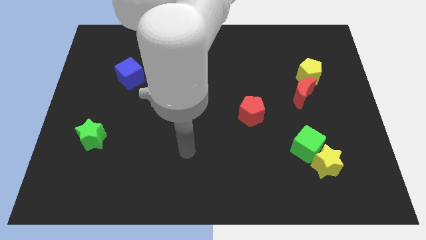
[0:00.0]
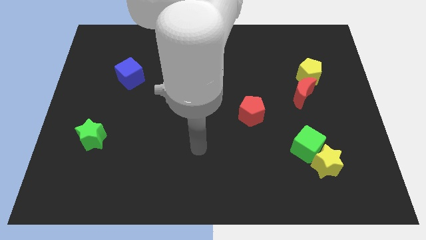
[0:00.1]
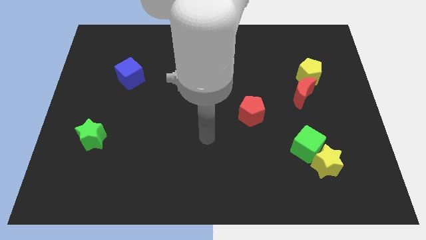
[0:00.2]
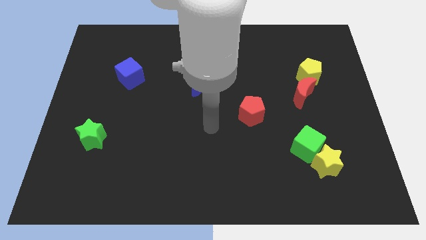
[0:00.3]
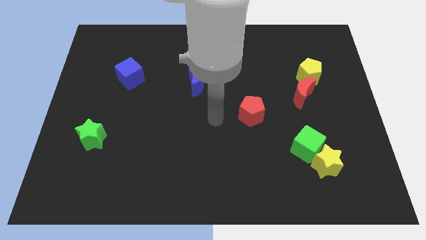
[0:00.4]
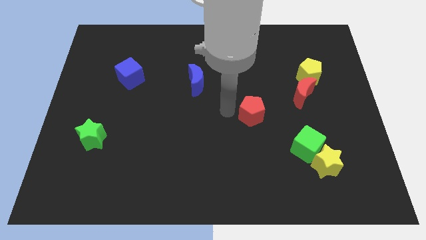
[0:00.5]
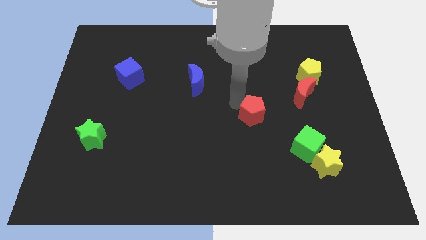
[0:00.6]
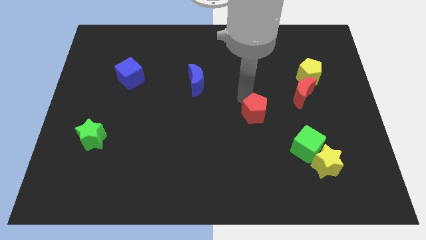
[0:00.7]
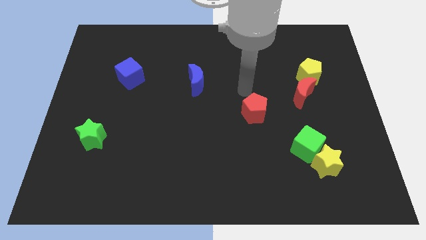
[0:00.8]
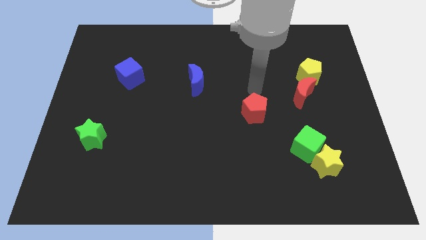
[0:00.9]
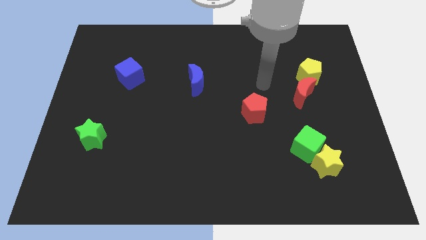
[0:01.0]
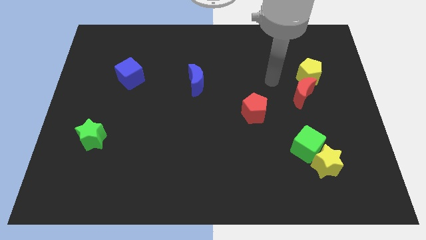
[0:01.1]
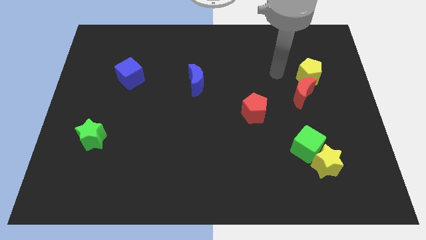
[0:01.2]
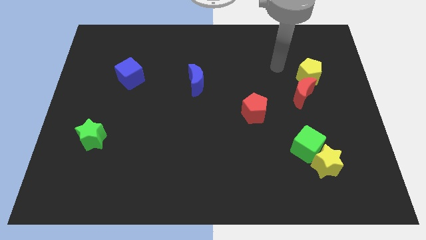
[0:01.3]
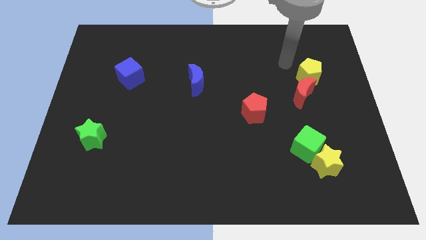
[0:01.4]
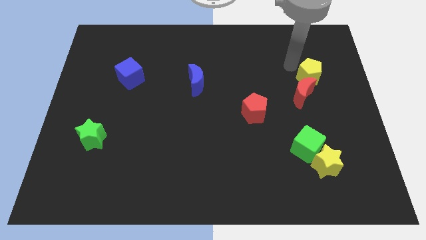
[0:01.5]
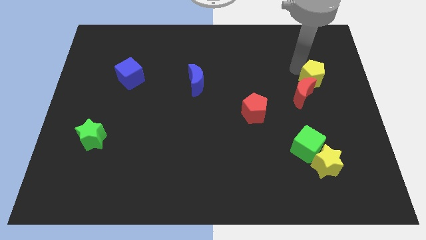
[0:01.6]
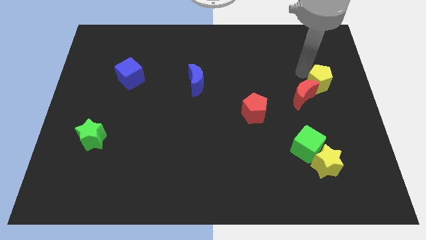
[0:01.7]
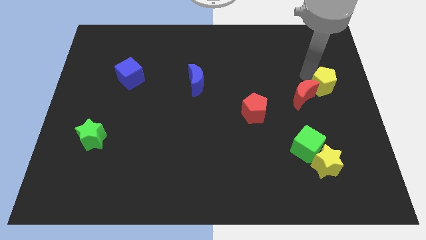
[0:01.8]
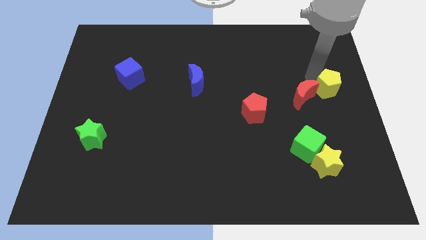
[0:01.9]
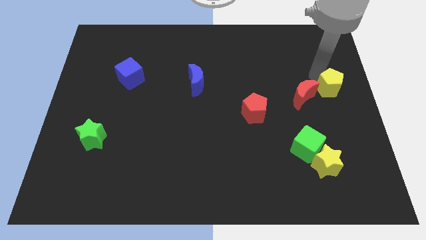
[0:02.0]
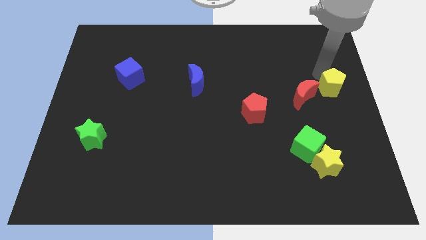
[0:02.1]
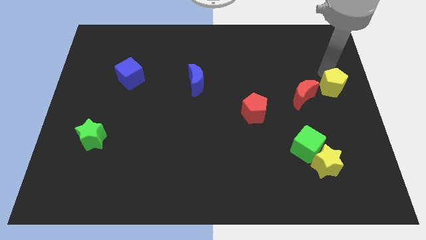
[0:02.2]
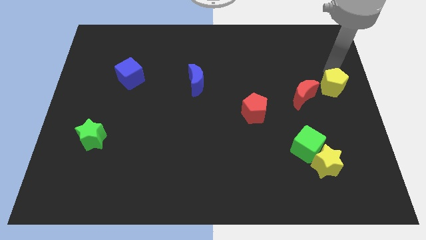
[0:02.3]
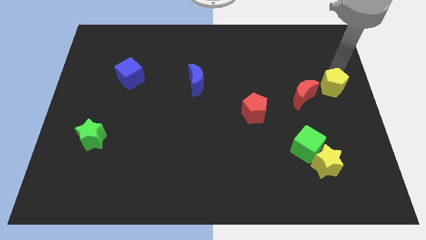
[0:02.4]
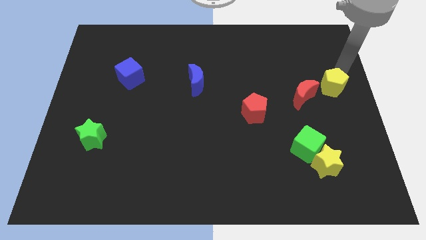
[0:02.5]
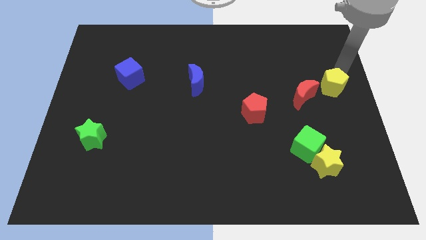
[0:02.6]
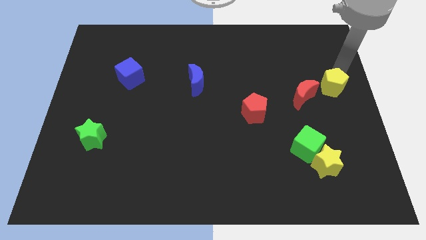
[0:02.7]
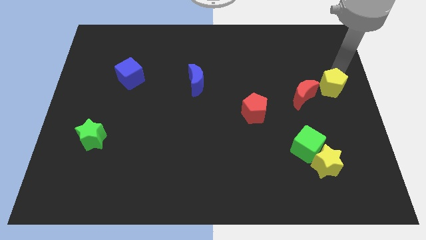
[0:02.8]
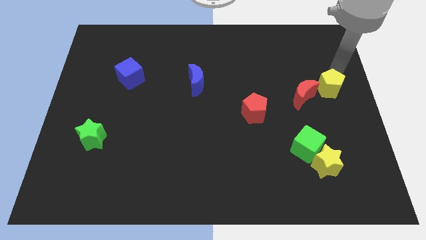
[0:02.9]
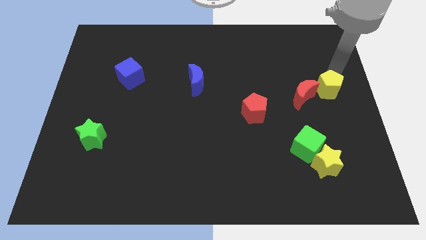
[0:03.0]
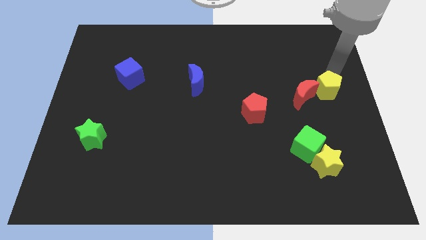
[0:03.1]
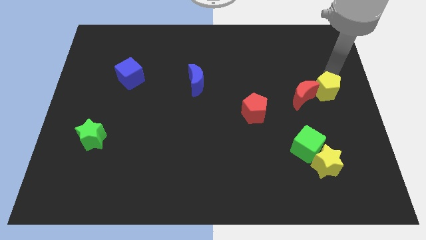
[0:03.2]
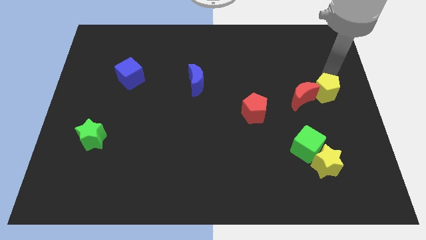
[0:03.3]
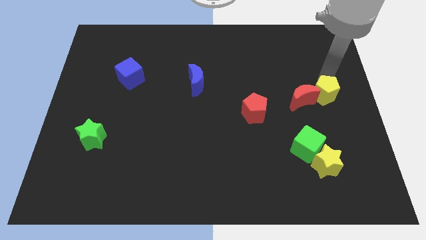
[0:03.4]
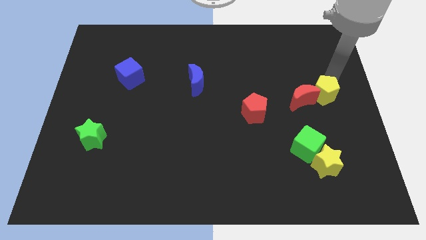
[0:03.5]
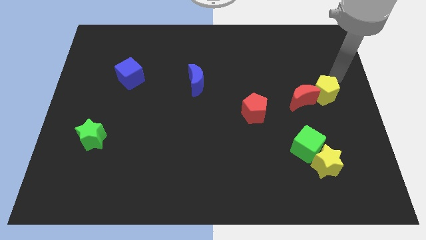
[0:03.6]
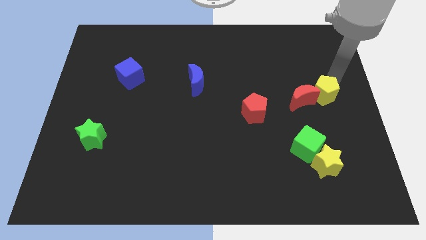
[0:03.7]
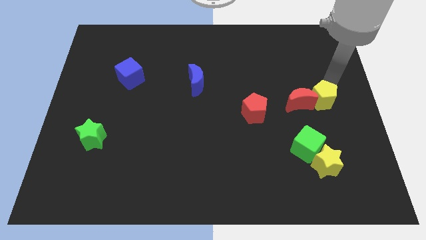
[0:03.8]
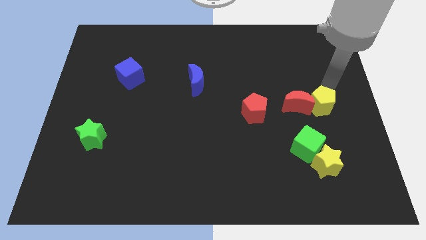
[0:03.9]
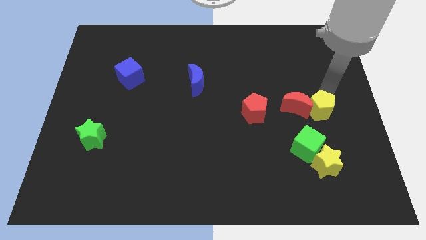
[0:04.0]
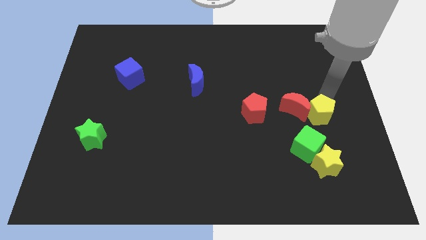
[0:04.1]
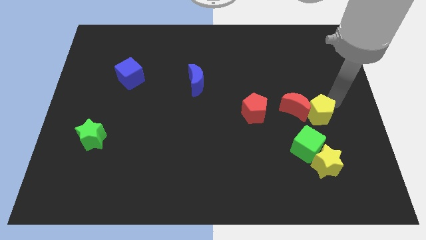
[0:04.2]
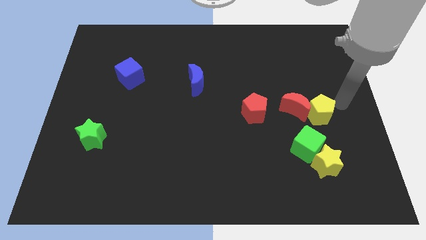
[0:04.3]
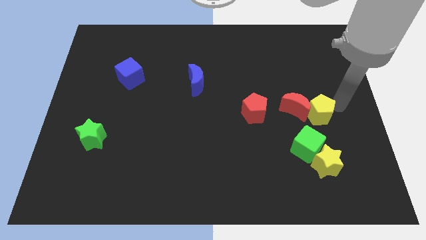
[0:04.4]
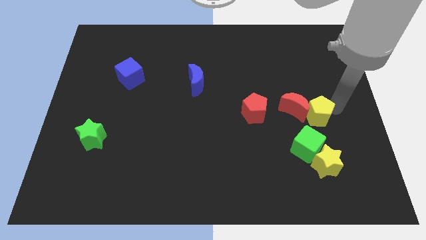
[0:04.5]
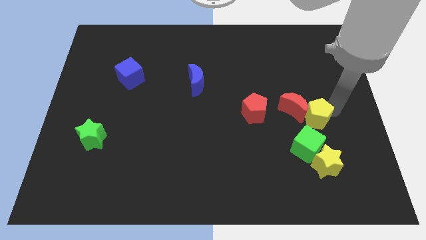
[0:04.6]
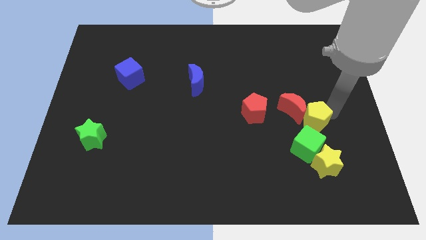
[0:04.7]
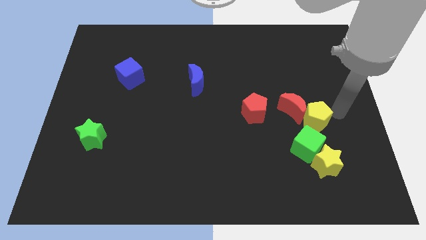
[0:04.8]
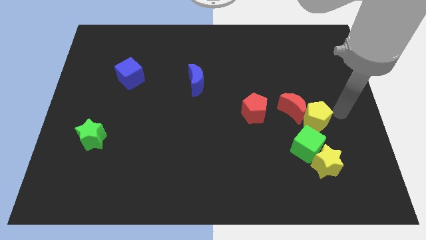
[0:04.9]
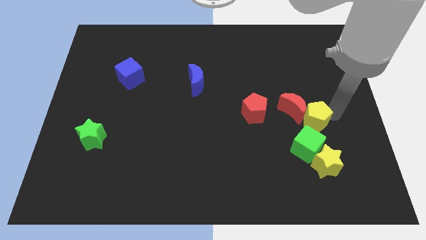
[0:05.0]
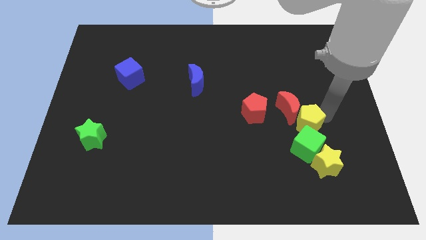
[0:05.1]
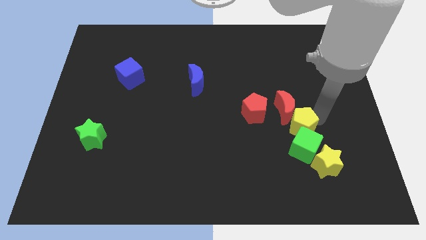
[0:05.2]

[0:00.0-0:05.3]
slide the yellow pentagon diagonally up and to the left of the green cube

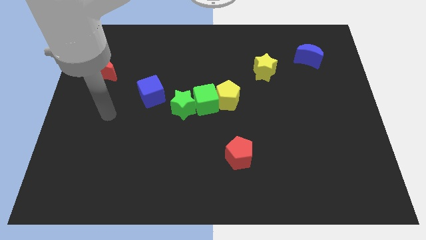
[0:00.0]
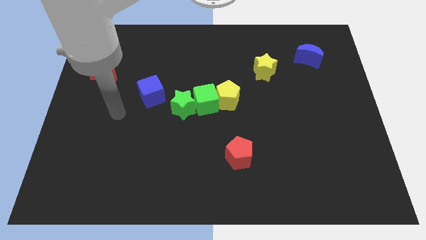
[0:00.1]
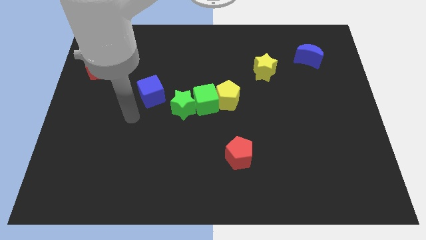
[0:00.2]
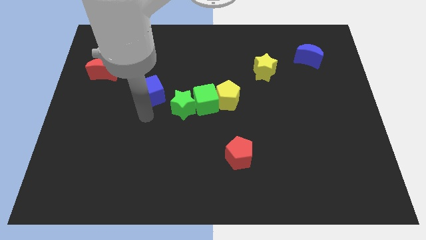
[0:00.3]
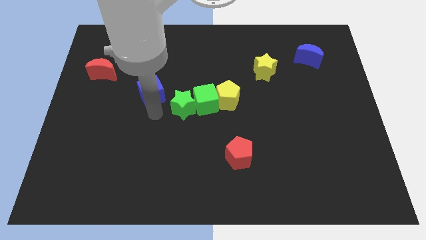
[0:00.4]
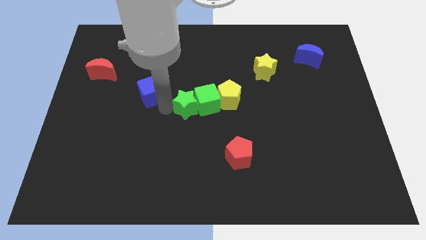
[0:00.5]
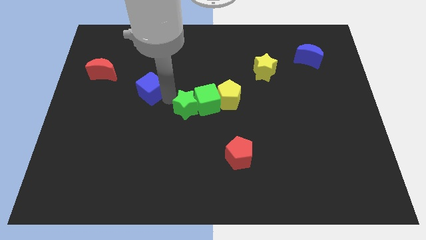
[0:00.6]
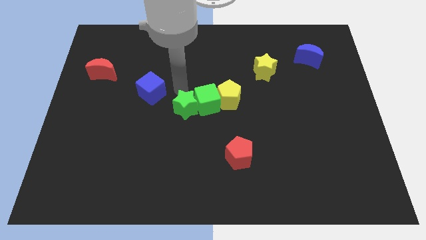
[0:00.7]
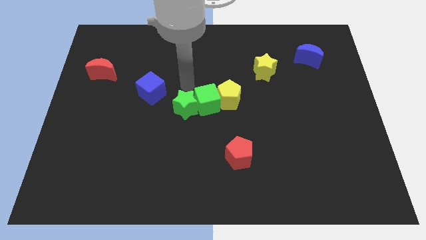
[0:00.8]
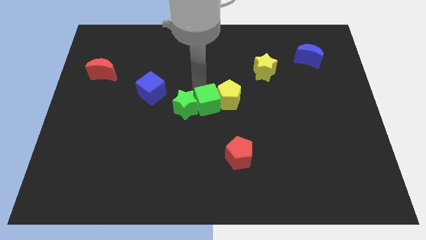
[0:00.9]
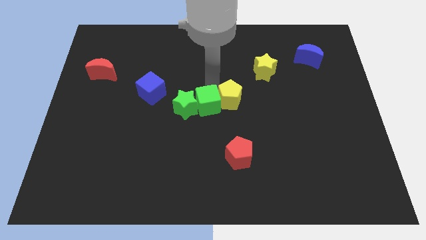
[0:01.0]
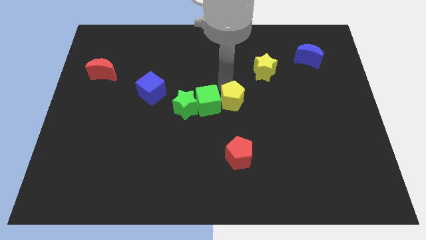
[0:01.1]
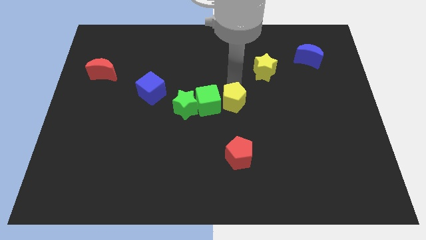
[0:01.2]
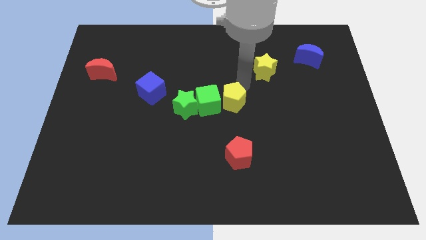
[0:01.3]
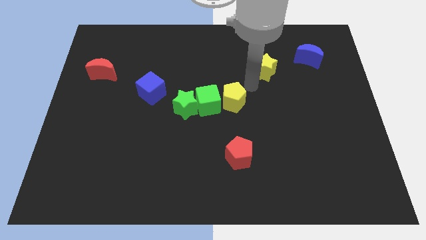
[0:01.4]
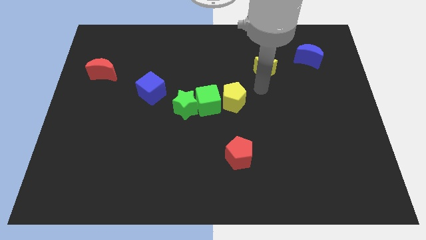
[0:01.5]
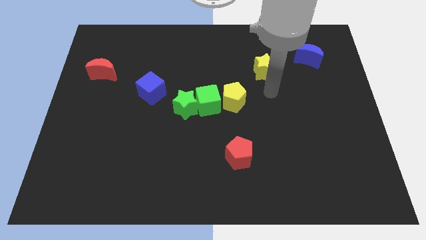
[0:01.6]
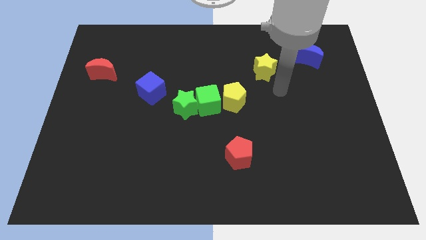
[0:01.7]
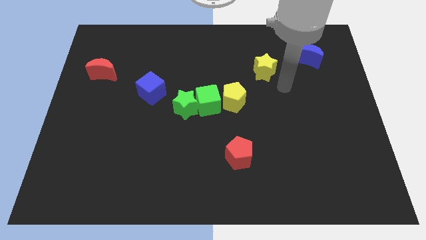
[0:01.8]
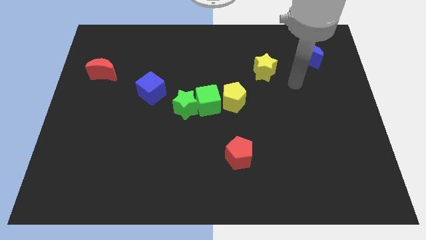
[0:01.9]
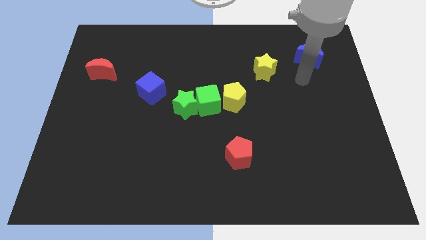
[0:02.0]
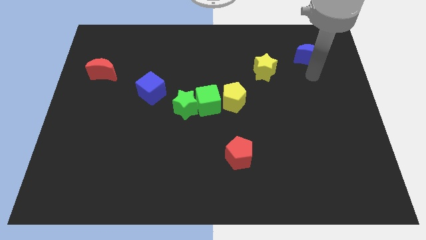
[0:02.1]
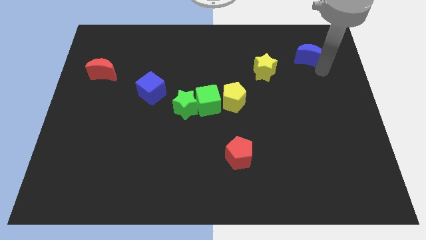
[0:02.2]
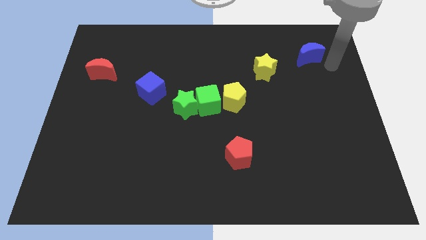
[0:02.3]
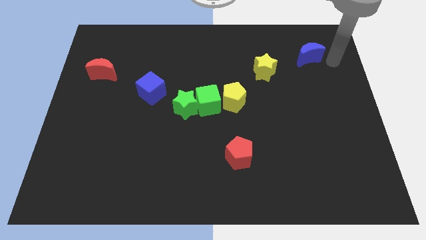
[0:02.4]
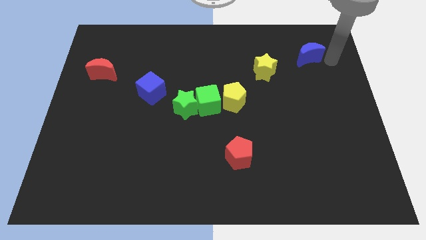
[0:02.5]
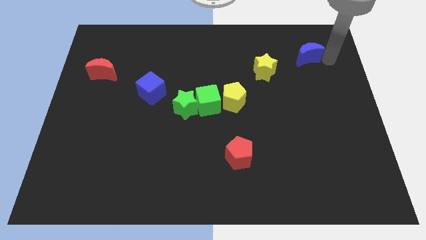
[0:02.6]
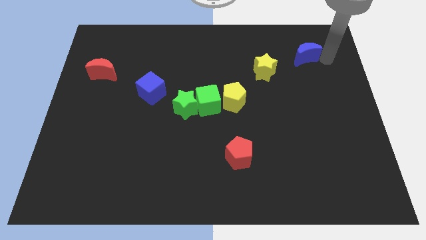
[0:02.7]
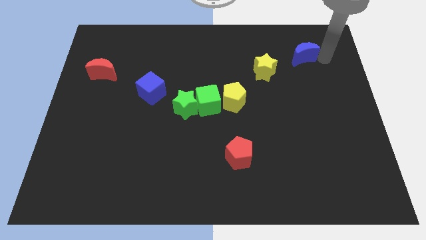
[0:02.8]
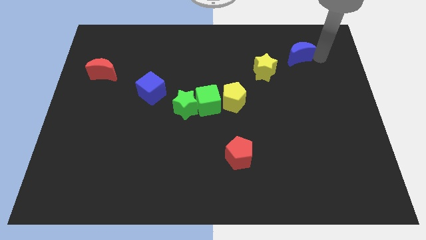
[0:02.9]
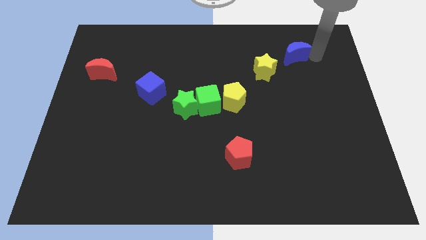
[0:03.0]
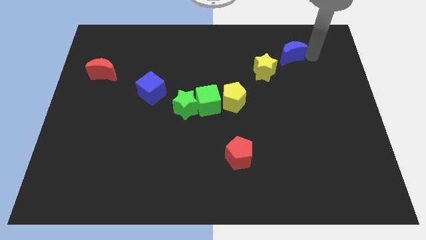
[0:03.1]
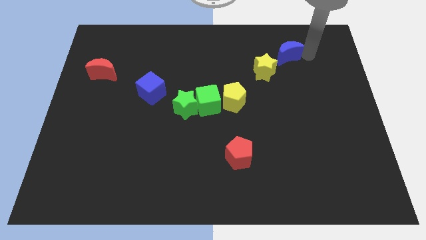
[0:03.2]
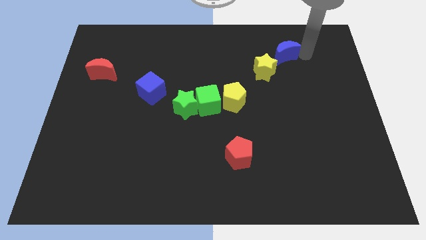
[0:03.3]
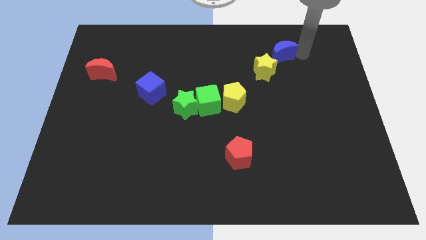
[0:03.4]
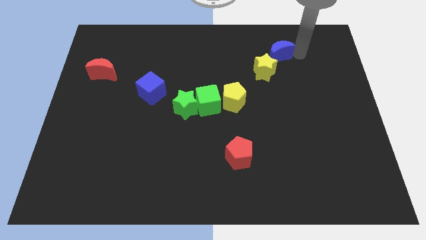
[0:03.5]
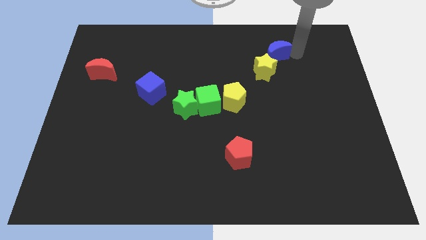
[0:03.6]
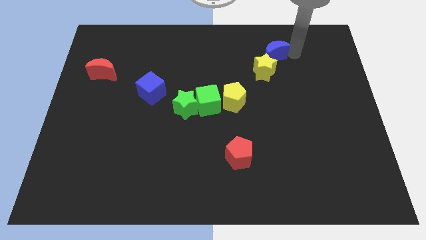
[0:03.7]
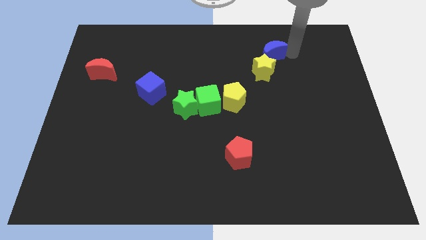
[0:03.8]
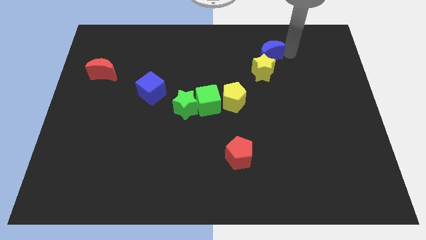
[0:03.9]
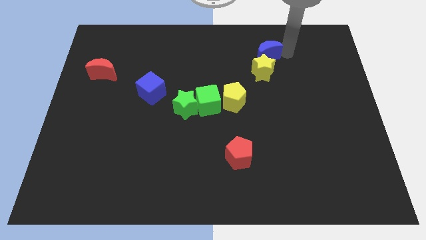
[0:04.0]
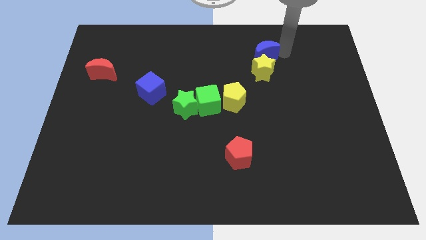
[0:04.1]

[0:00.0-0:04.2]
slide the blue moon to the top left side of the yellow star
